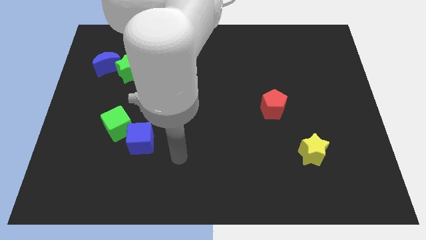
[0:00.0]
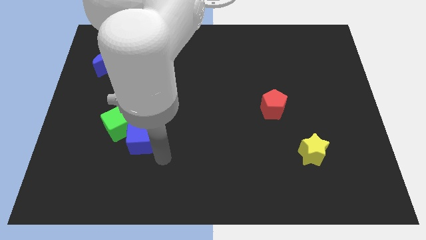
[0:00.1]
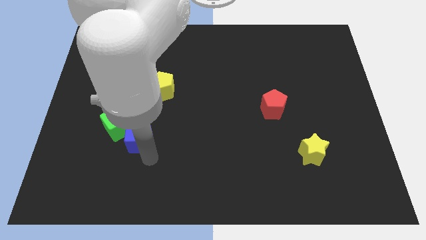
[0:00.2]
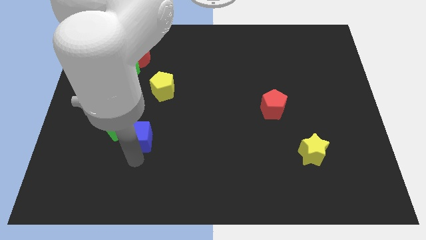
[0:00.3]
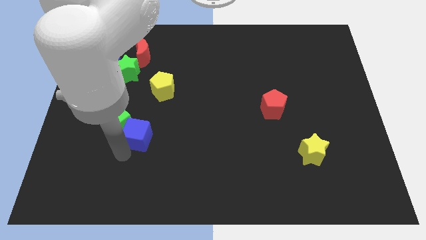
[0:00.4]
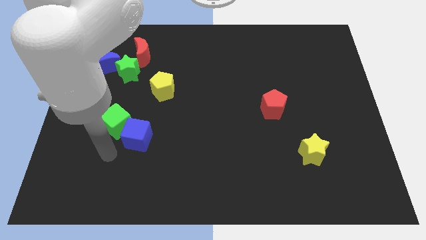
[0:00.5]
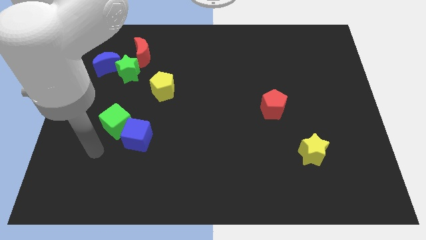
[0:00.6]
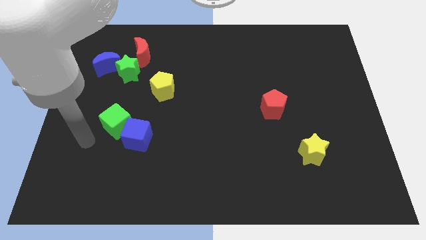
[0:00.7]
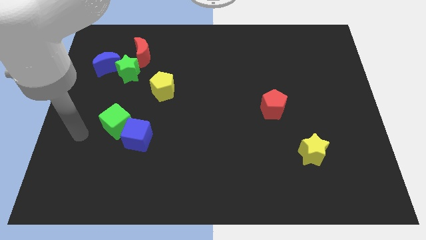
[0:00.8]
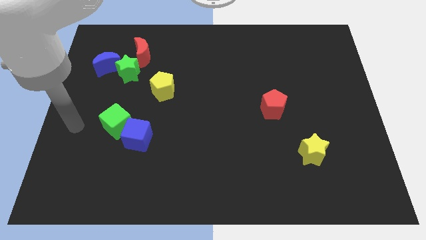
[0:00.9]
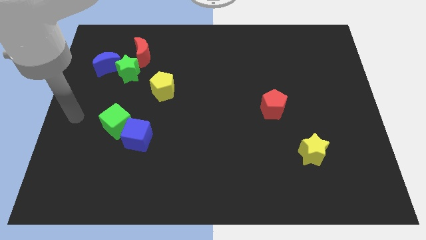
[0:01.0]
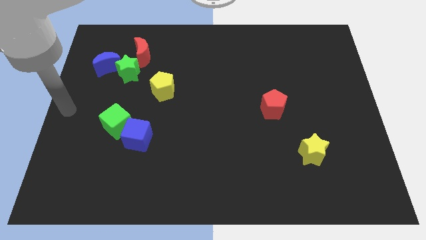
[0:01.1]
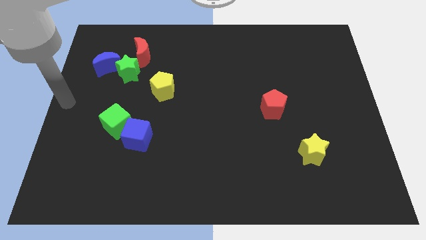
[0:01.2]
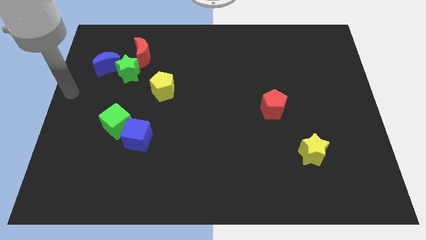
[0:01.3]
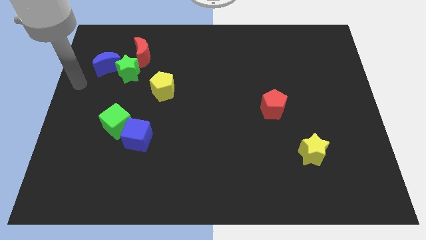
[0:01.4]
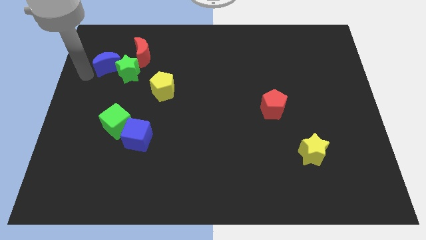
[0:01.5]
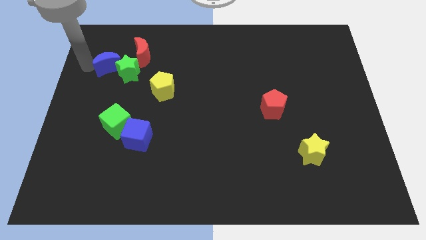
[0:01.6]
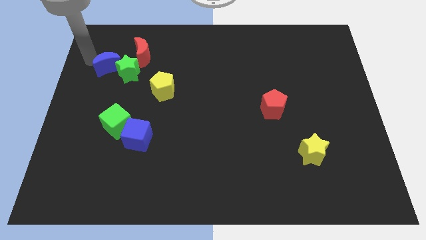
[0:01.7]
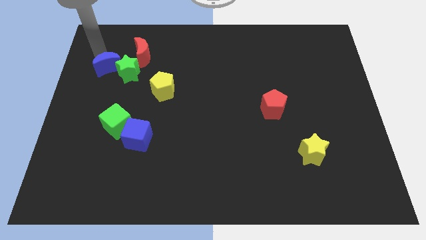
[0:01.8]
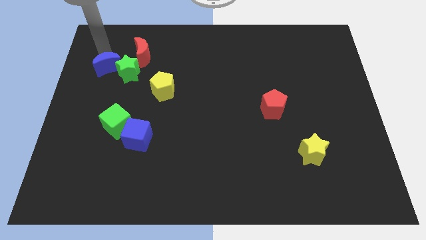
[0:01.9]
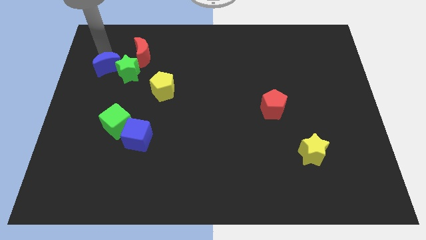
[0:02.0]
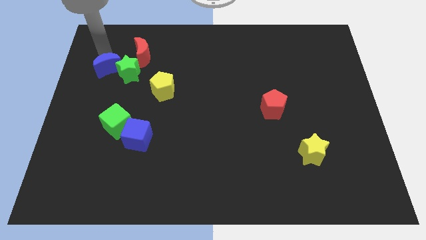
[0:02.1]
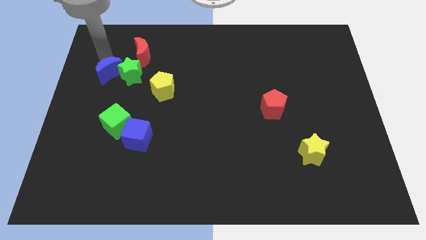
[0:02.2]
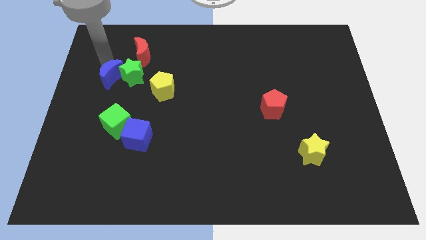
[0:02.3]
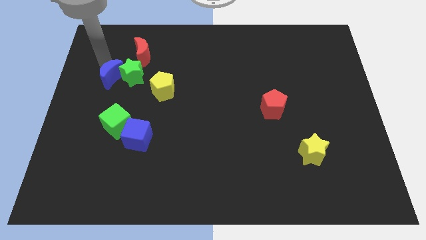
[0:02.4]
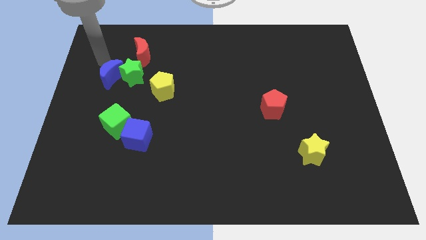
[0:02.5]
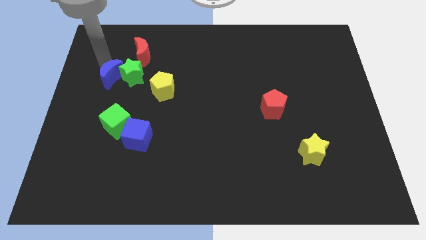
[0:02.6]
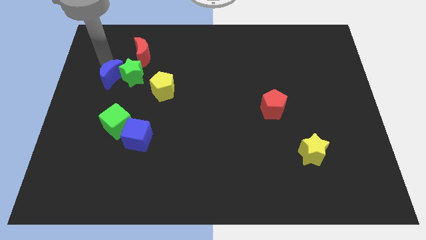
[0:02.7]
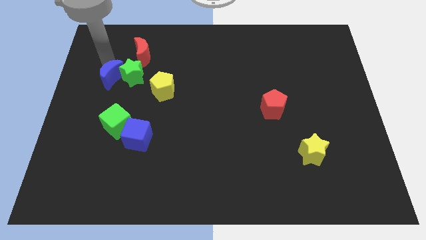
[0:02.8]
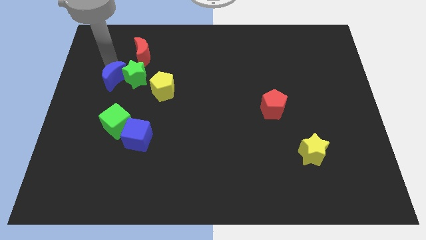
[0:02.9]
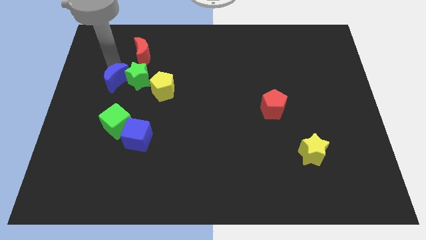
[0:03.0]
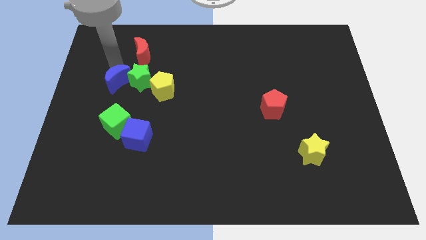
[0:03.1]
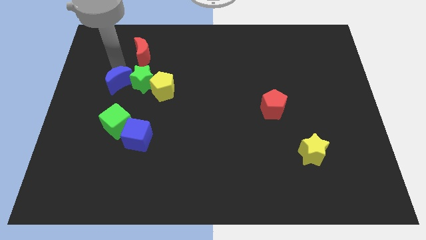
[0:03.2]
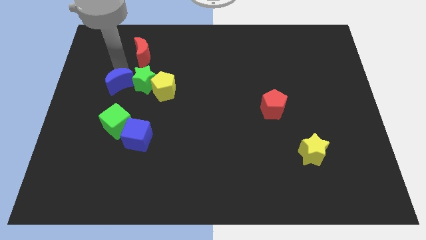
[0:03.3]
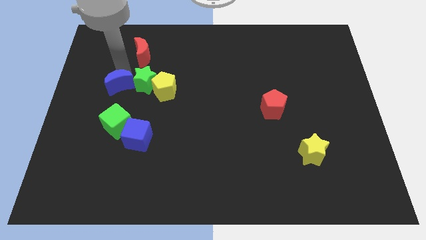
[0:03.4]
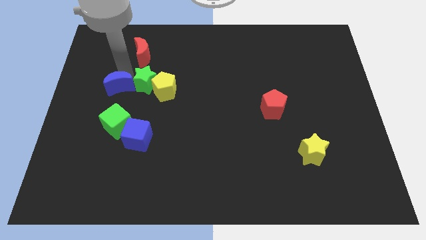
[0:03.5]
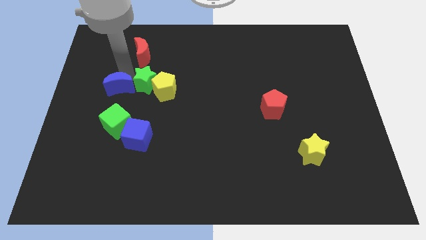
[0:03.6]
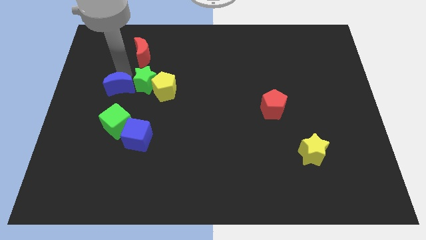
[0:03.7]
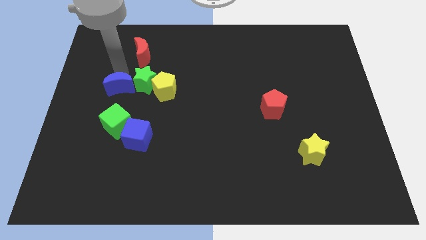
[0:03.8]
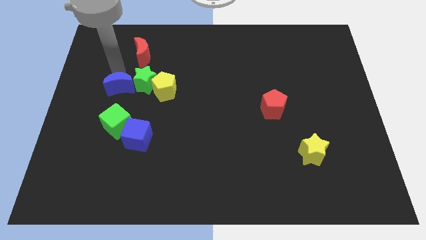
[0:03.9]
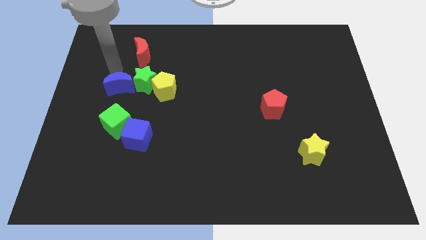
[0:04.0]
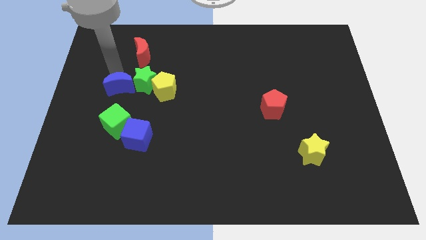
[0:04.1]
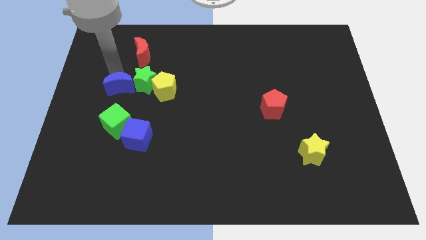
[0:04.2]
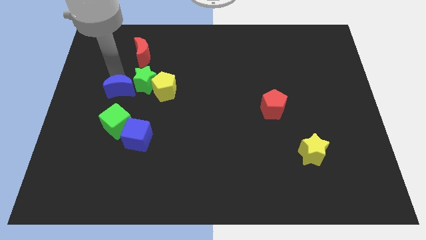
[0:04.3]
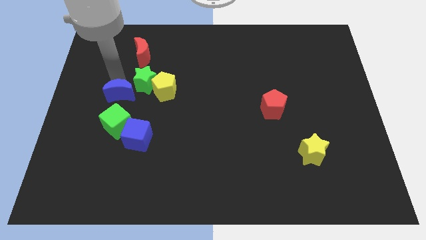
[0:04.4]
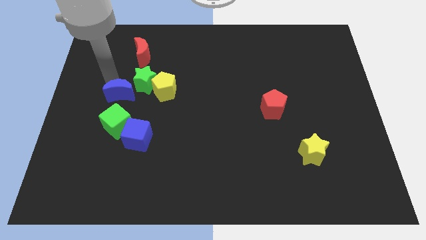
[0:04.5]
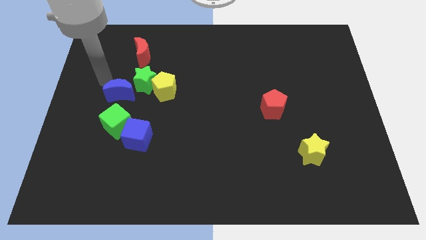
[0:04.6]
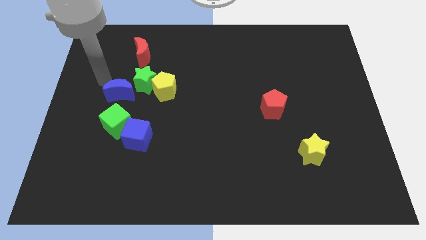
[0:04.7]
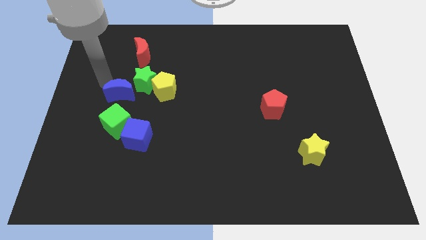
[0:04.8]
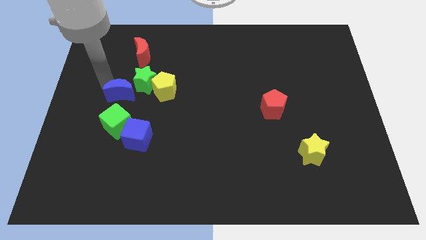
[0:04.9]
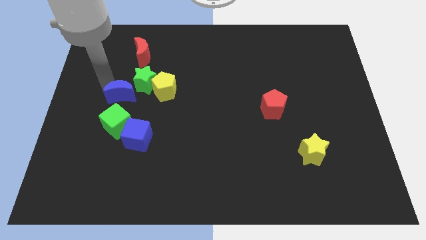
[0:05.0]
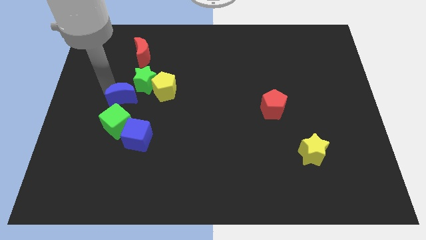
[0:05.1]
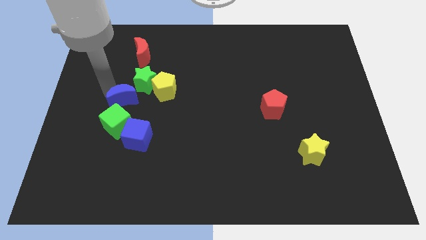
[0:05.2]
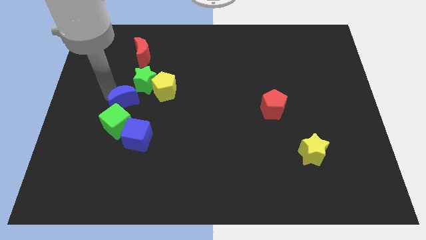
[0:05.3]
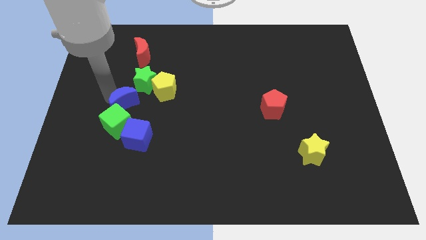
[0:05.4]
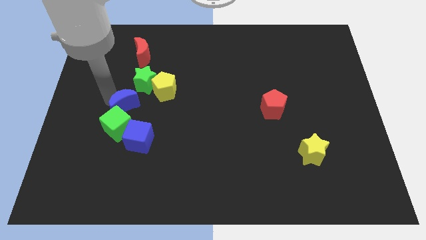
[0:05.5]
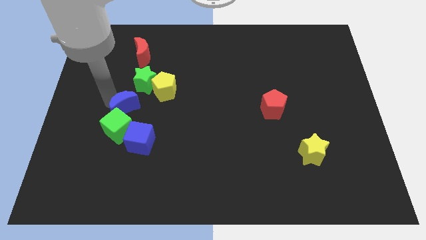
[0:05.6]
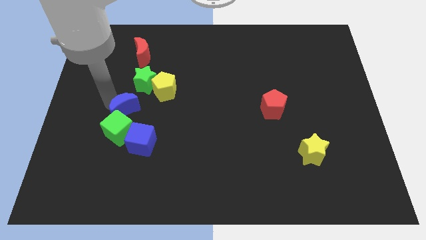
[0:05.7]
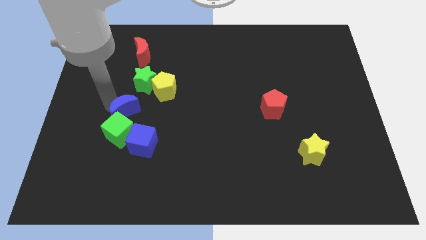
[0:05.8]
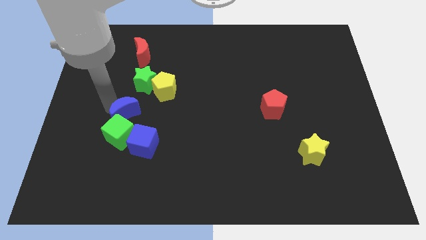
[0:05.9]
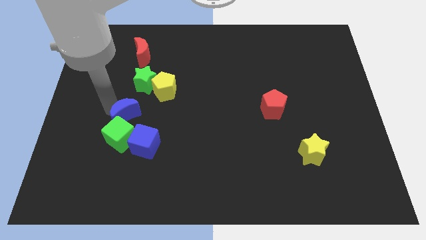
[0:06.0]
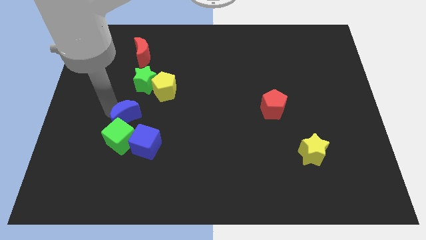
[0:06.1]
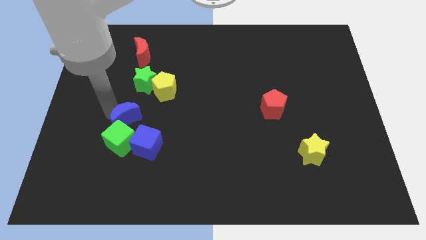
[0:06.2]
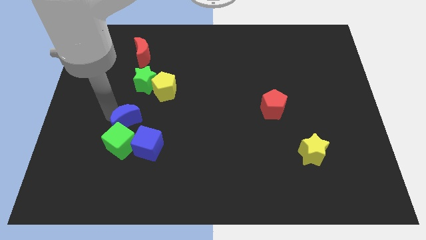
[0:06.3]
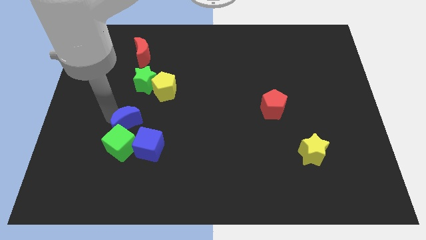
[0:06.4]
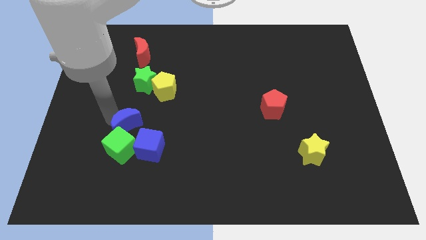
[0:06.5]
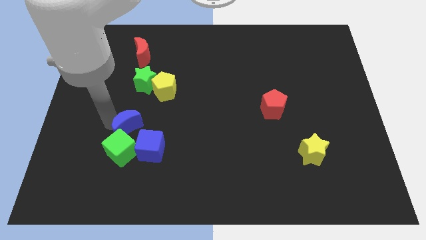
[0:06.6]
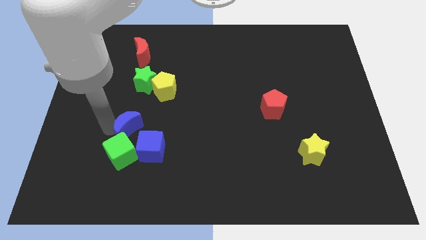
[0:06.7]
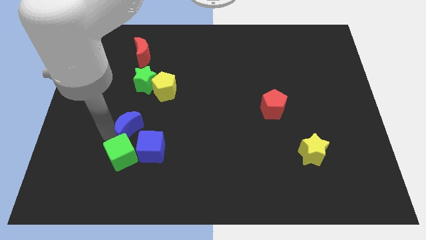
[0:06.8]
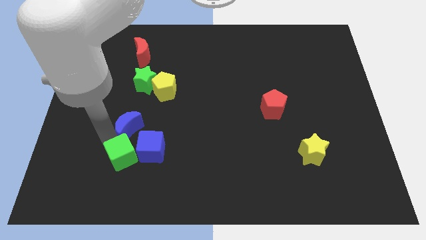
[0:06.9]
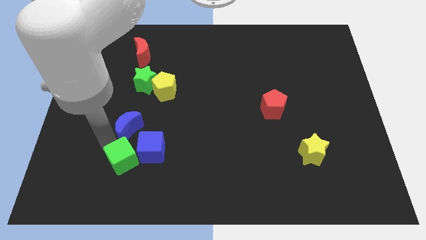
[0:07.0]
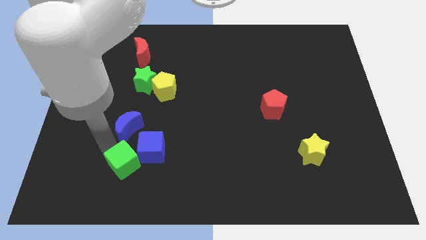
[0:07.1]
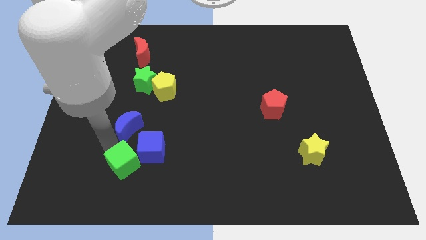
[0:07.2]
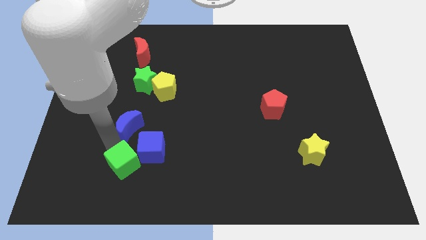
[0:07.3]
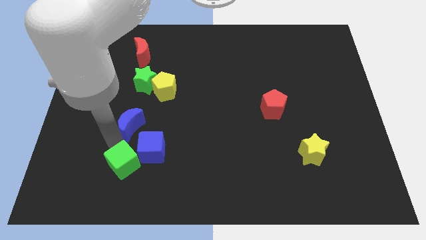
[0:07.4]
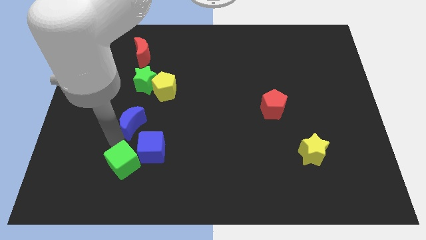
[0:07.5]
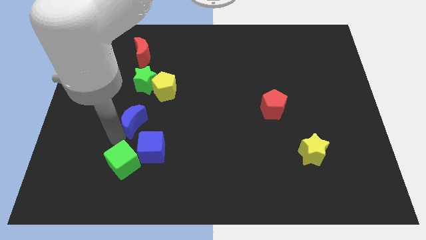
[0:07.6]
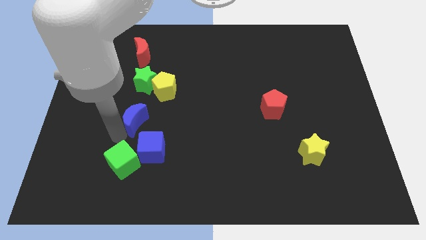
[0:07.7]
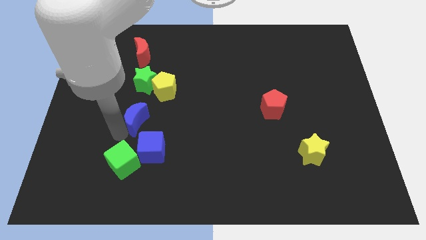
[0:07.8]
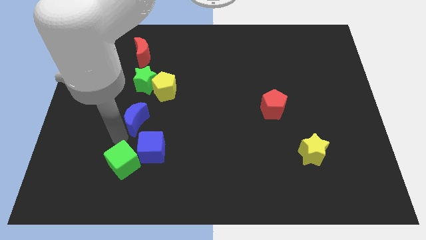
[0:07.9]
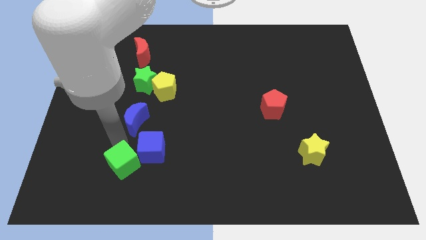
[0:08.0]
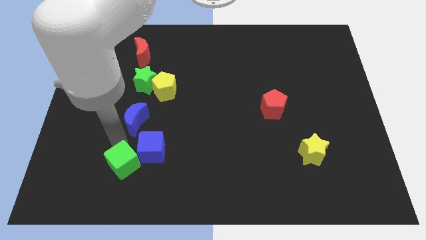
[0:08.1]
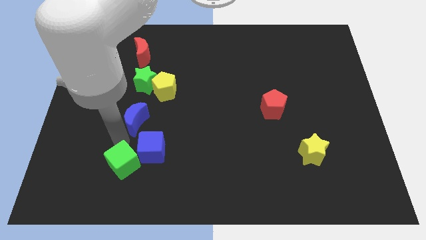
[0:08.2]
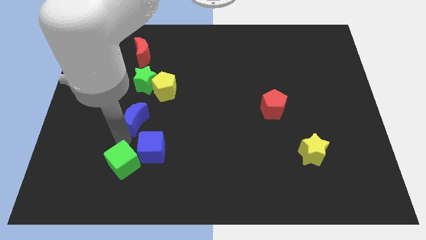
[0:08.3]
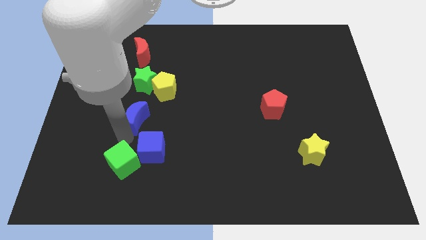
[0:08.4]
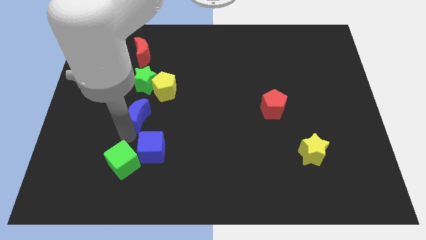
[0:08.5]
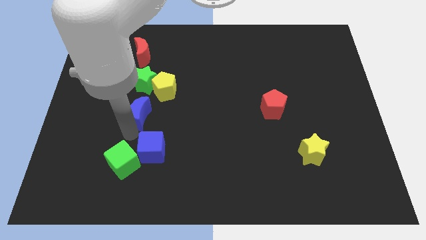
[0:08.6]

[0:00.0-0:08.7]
put the blue moon to the bottom side of the yellow pentagon
